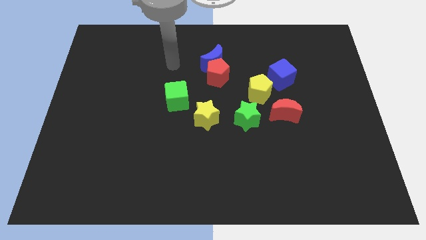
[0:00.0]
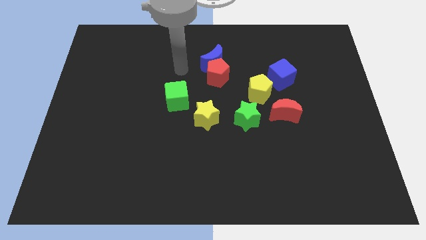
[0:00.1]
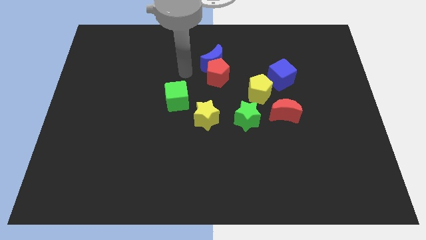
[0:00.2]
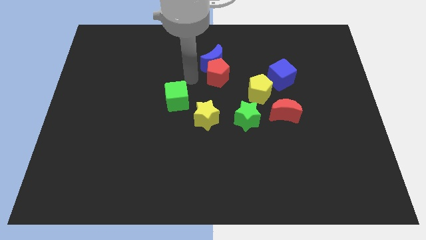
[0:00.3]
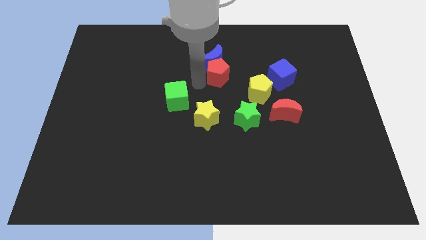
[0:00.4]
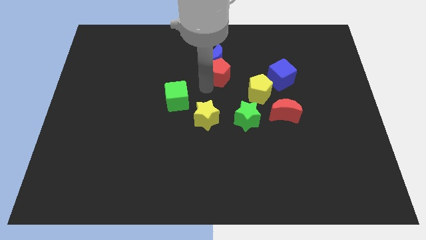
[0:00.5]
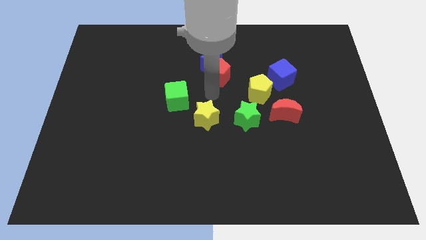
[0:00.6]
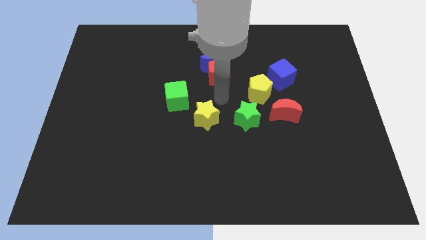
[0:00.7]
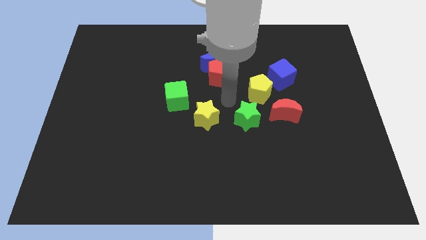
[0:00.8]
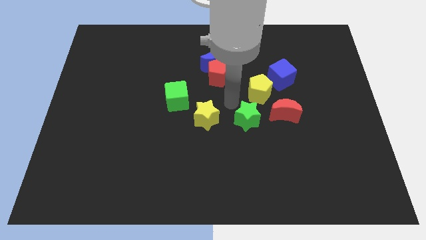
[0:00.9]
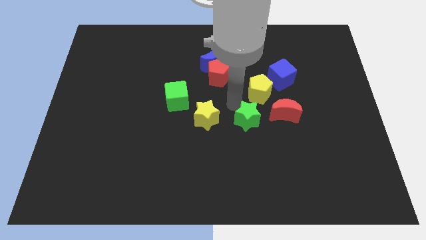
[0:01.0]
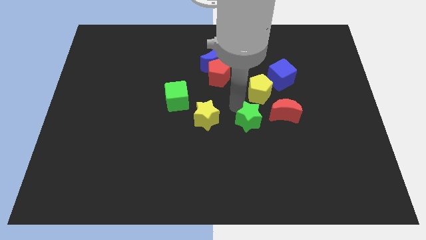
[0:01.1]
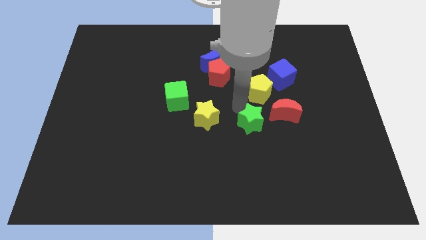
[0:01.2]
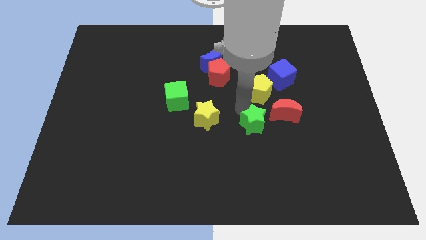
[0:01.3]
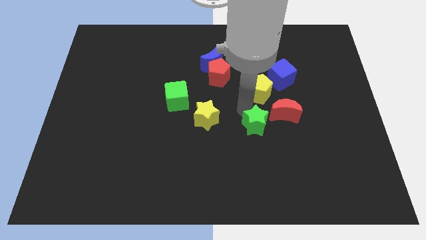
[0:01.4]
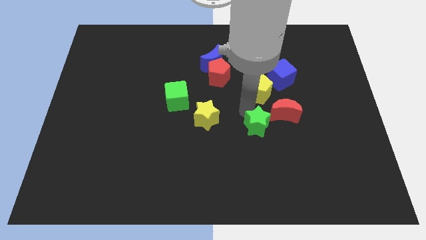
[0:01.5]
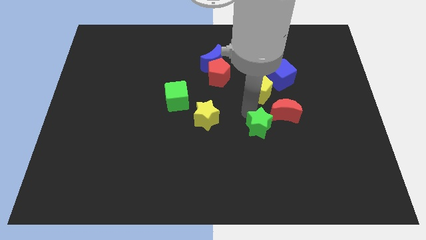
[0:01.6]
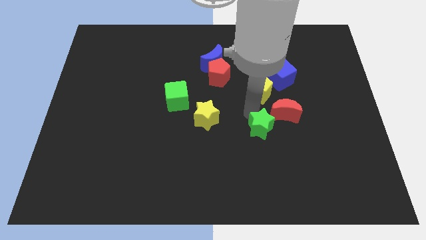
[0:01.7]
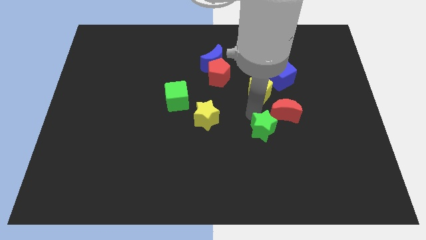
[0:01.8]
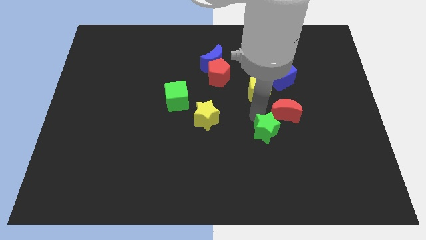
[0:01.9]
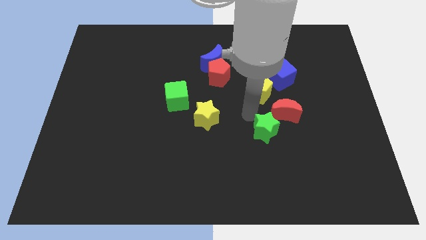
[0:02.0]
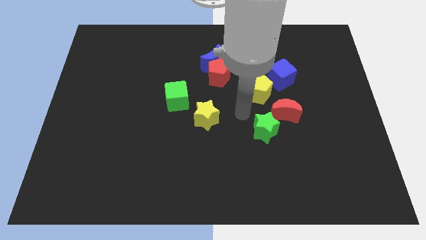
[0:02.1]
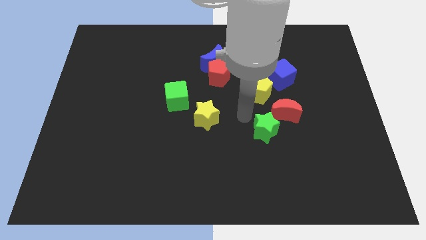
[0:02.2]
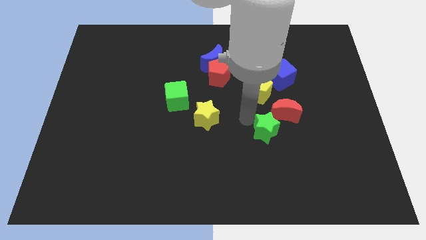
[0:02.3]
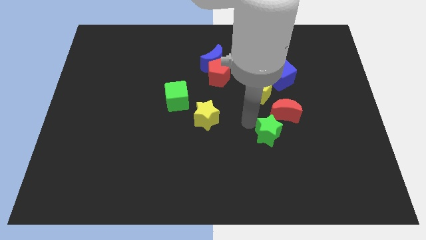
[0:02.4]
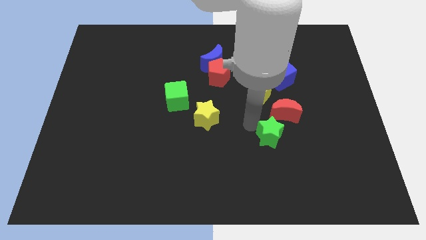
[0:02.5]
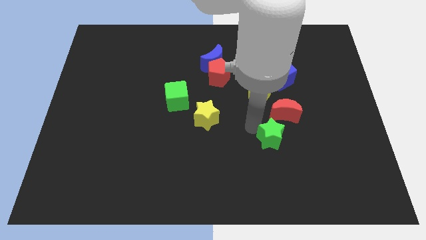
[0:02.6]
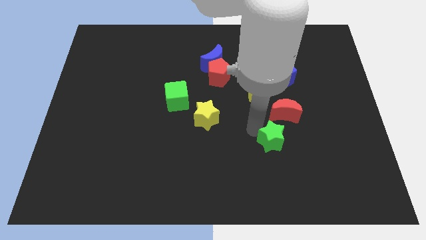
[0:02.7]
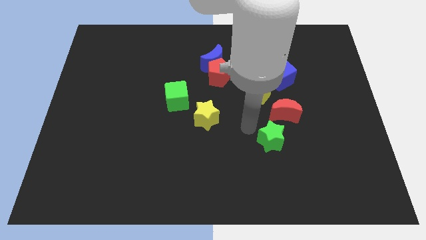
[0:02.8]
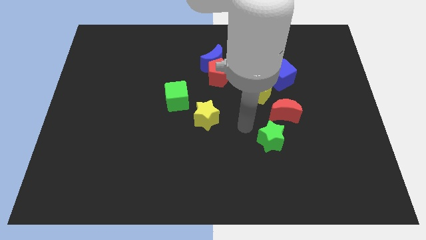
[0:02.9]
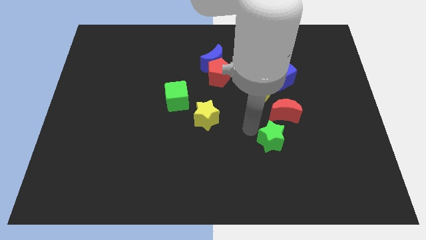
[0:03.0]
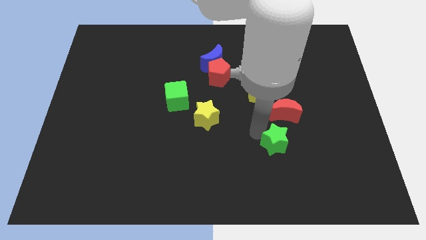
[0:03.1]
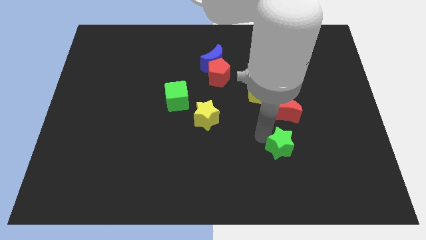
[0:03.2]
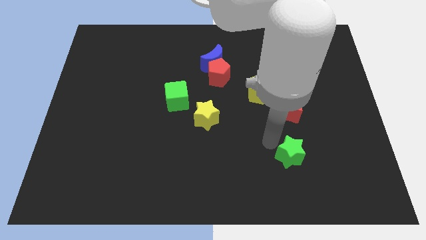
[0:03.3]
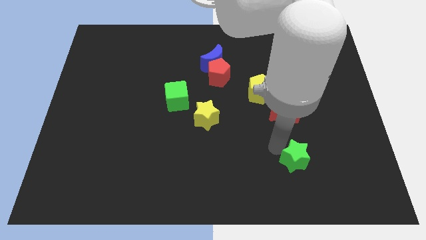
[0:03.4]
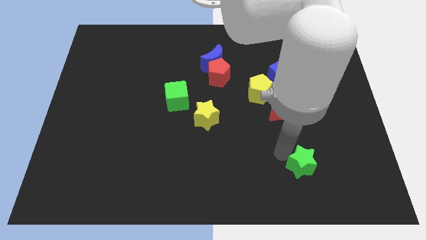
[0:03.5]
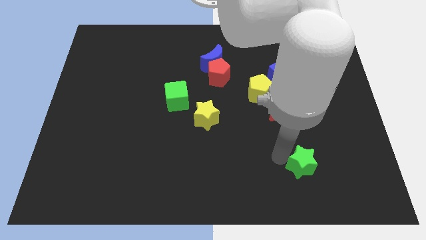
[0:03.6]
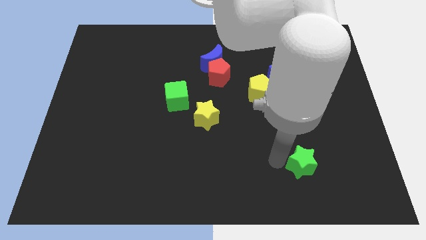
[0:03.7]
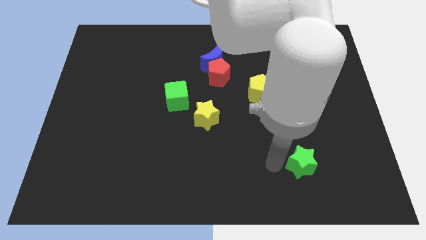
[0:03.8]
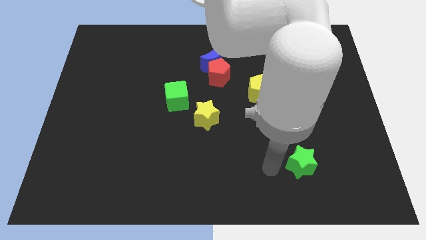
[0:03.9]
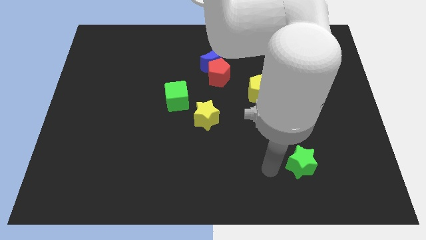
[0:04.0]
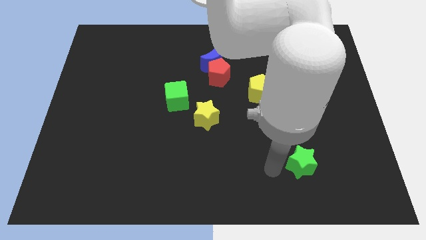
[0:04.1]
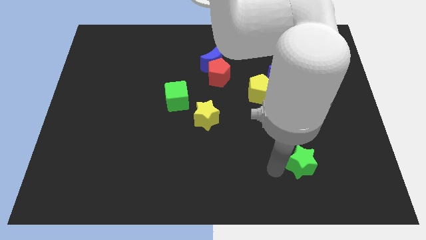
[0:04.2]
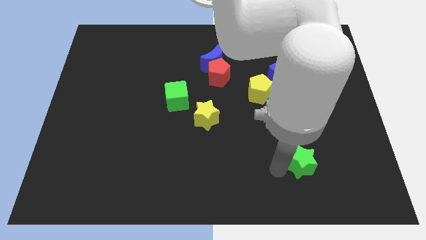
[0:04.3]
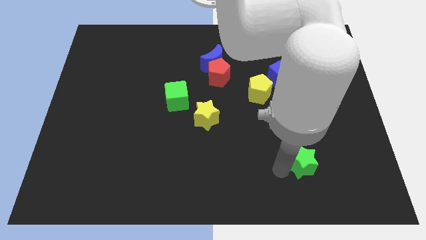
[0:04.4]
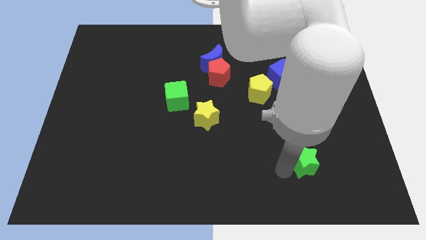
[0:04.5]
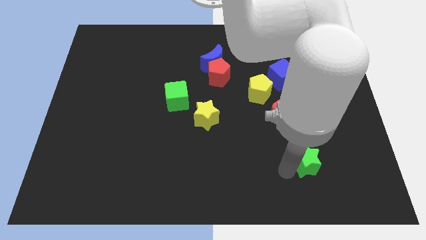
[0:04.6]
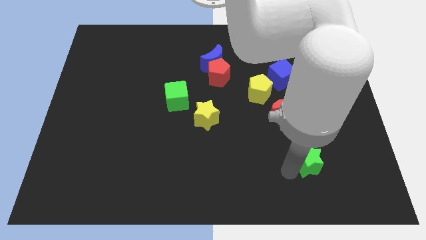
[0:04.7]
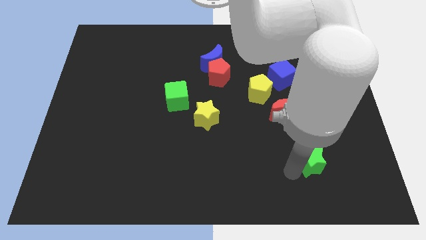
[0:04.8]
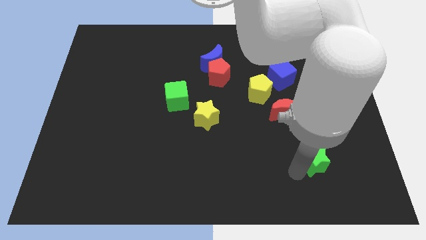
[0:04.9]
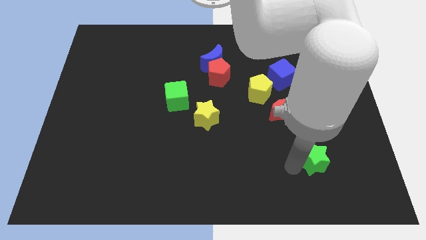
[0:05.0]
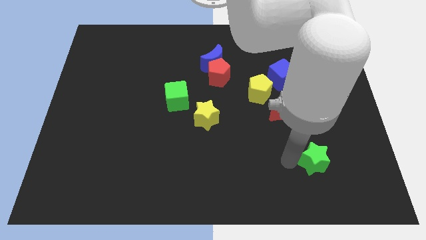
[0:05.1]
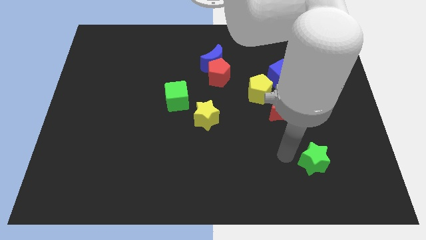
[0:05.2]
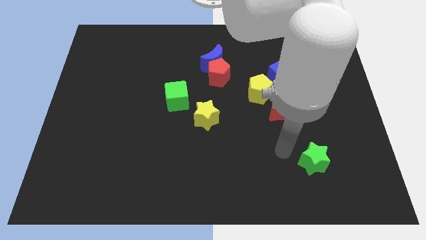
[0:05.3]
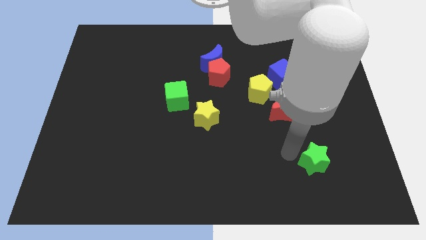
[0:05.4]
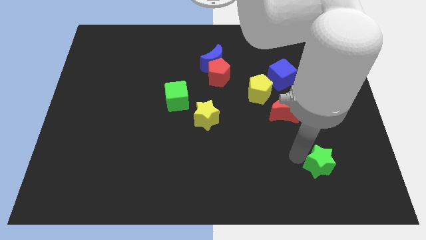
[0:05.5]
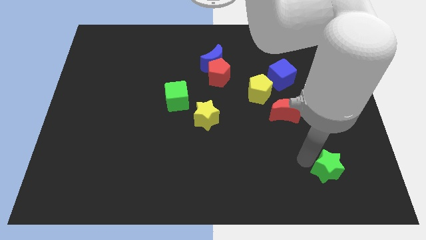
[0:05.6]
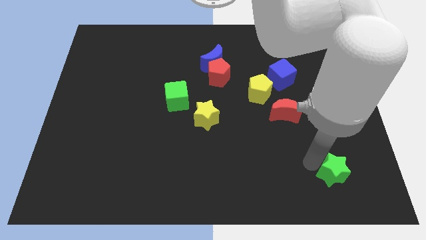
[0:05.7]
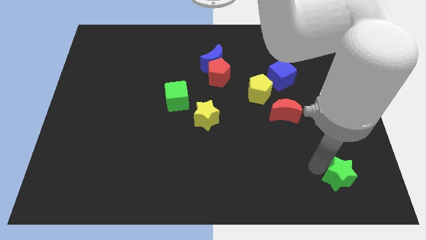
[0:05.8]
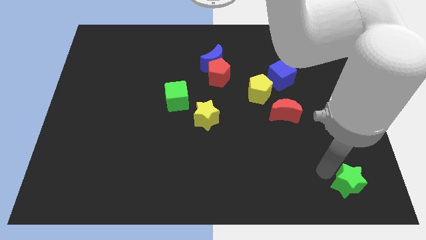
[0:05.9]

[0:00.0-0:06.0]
slide the green star to the bottom right of the board

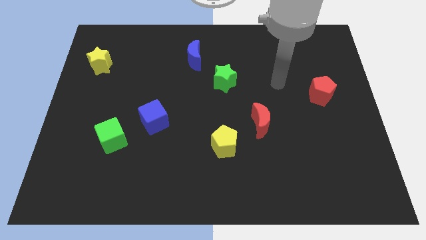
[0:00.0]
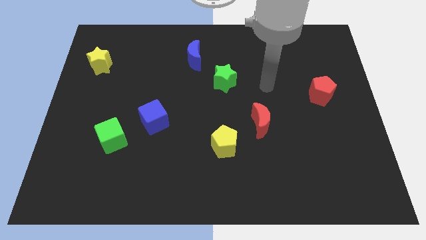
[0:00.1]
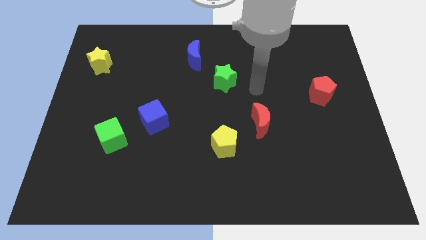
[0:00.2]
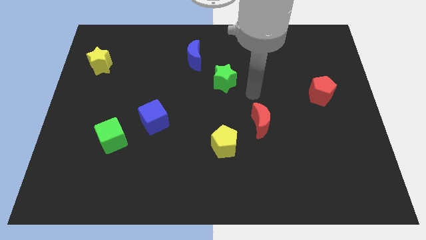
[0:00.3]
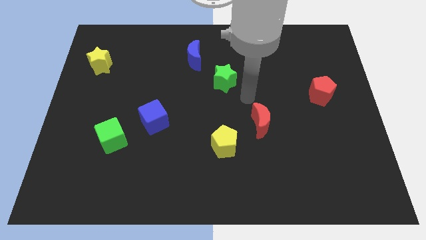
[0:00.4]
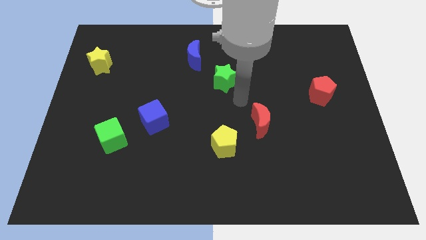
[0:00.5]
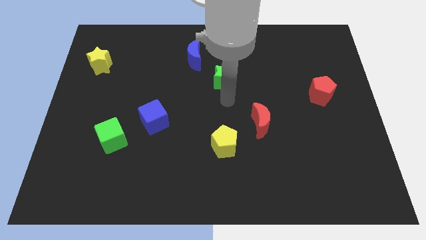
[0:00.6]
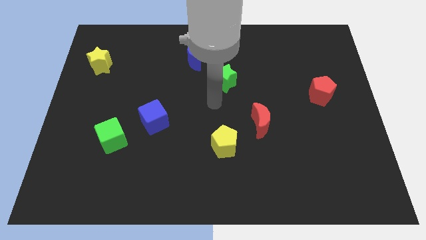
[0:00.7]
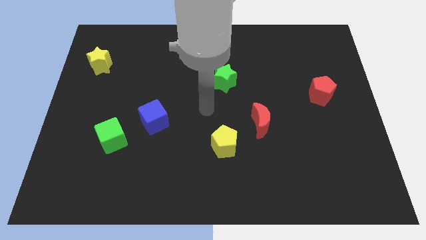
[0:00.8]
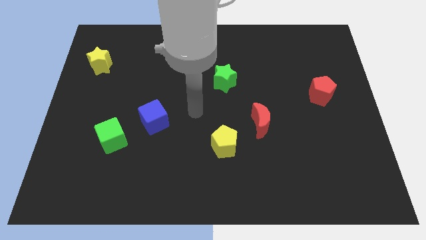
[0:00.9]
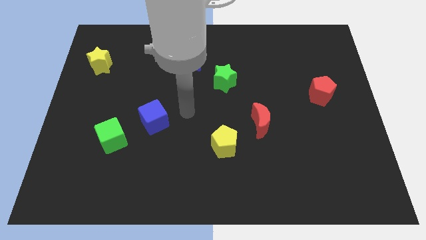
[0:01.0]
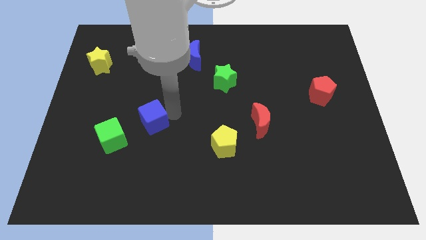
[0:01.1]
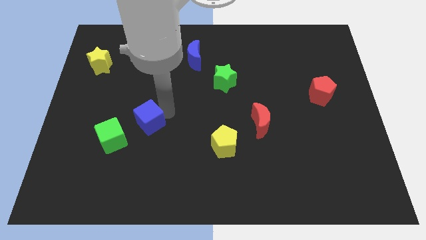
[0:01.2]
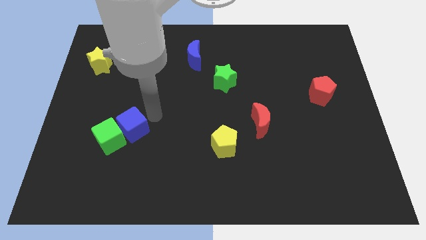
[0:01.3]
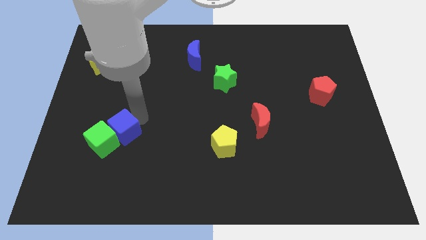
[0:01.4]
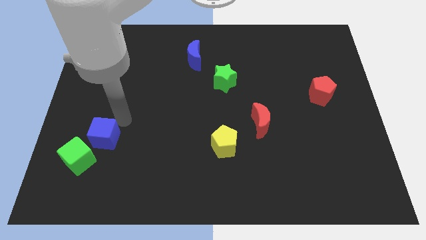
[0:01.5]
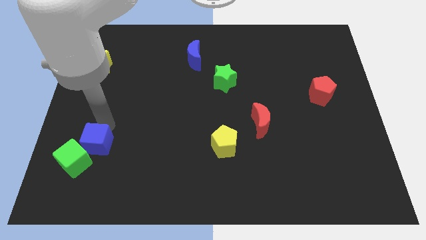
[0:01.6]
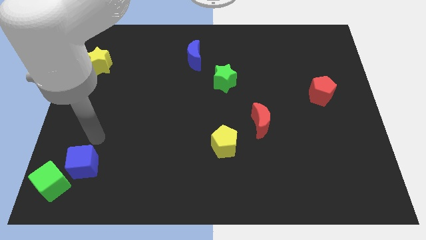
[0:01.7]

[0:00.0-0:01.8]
move the green cube to the bottom left of the board
